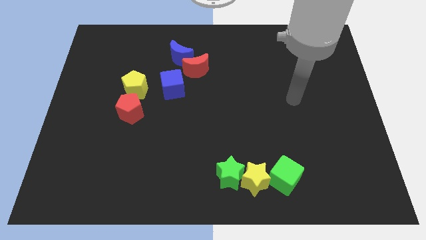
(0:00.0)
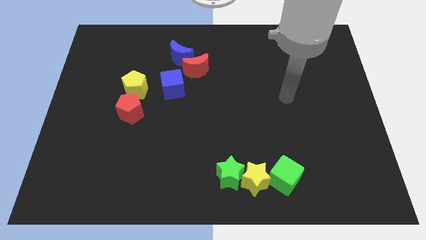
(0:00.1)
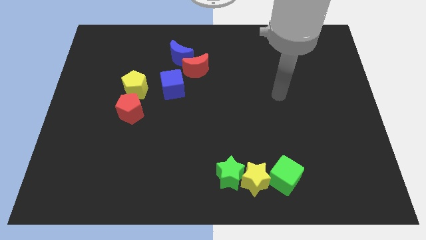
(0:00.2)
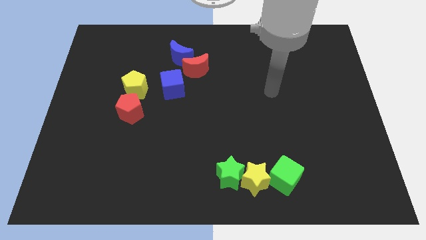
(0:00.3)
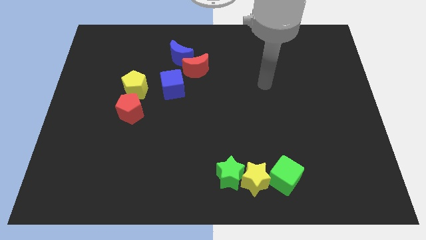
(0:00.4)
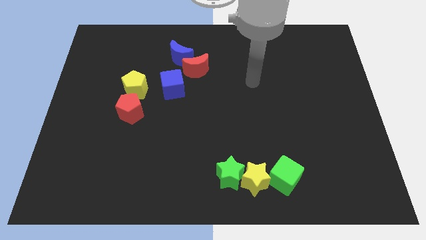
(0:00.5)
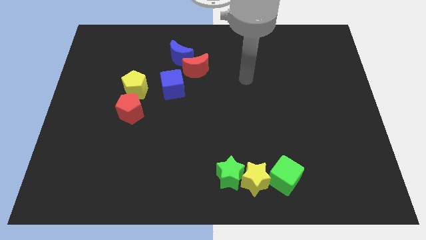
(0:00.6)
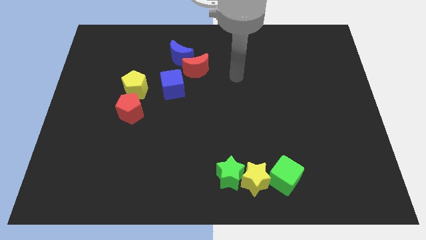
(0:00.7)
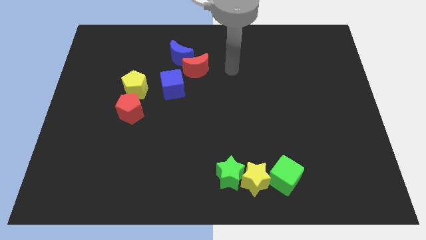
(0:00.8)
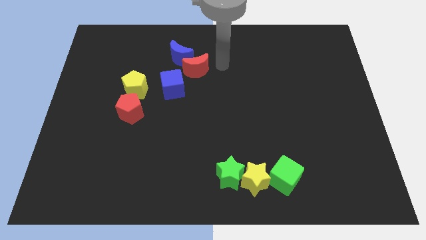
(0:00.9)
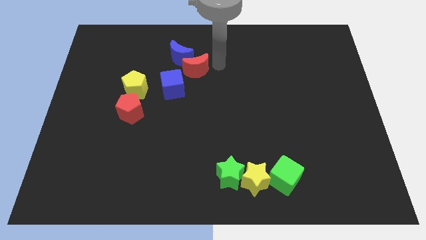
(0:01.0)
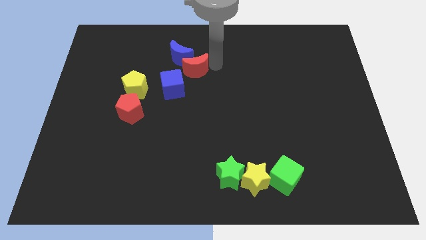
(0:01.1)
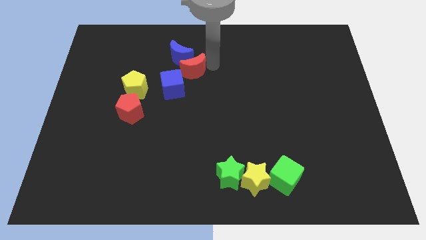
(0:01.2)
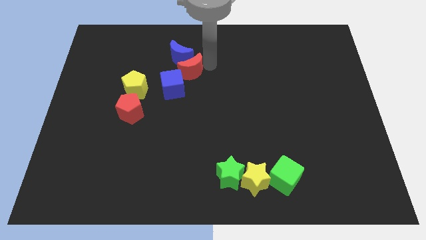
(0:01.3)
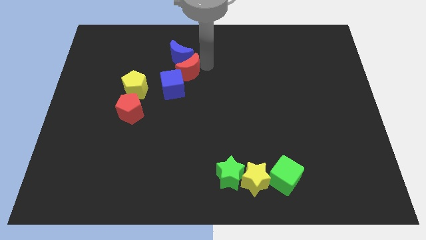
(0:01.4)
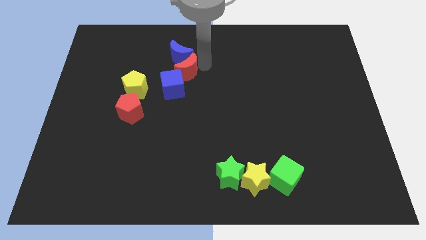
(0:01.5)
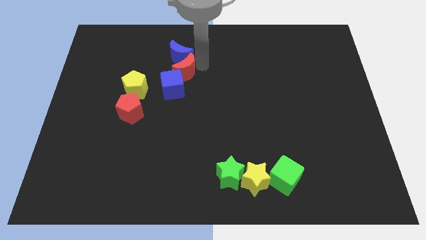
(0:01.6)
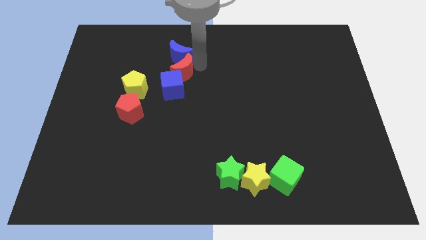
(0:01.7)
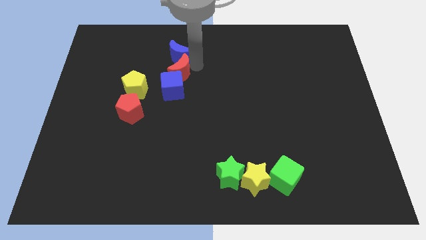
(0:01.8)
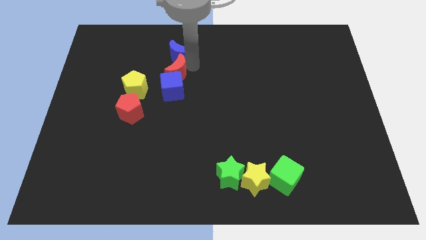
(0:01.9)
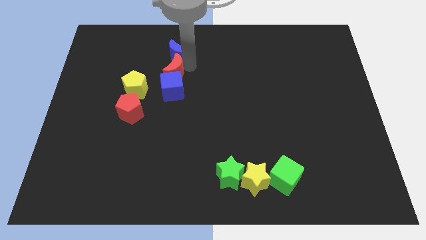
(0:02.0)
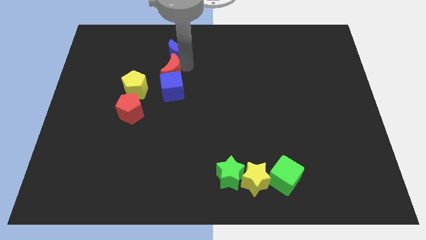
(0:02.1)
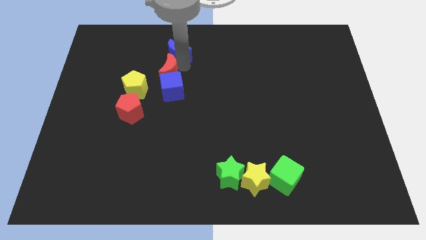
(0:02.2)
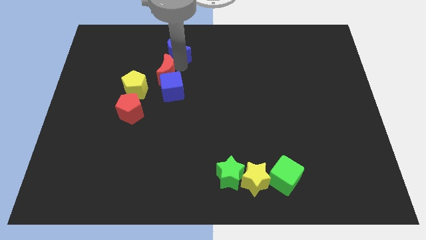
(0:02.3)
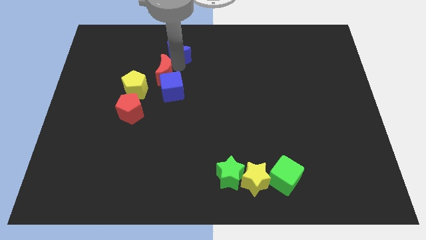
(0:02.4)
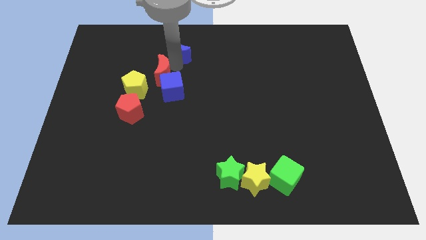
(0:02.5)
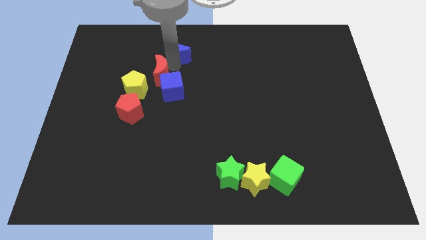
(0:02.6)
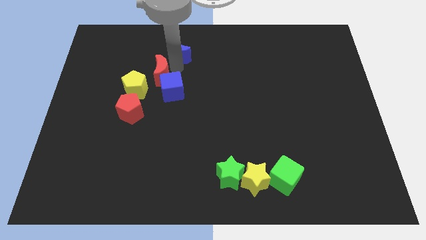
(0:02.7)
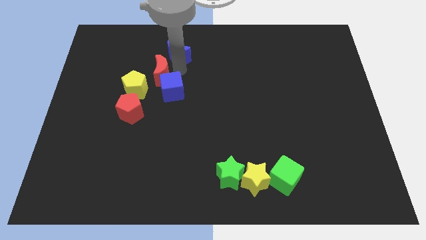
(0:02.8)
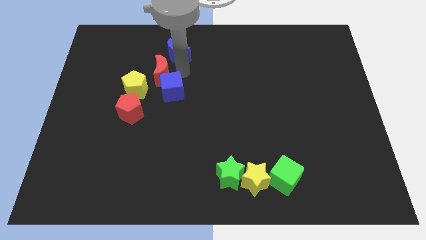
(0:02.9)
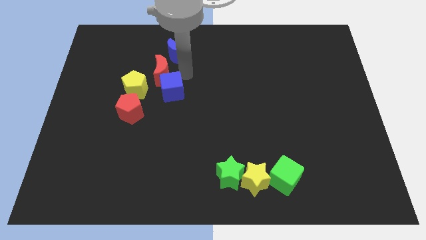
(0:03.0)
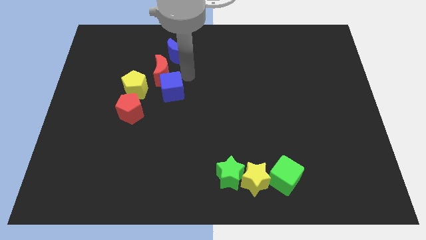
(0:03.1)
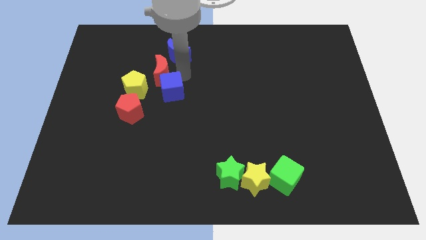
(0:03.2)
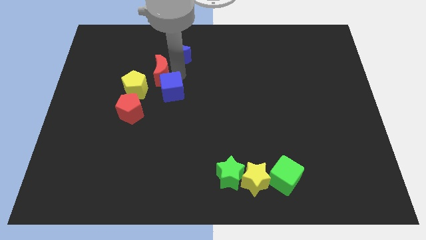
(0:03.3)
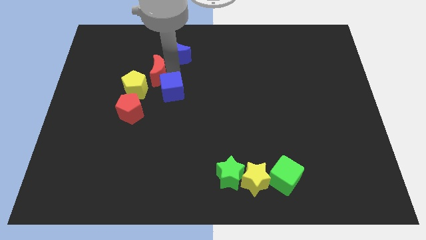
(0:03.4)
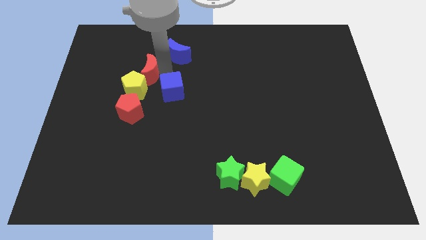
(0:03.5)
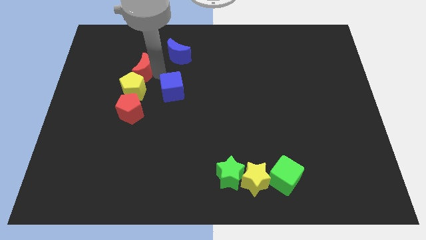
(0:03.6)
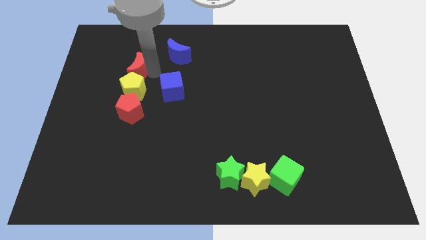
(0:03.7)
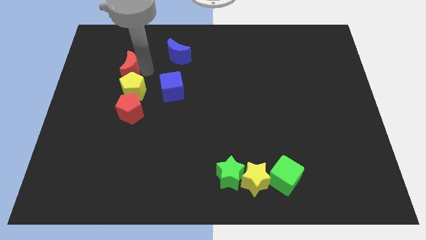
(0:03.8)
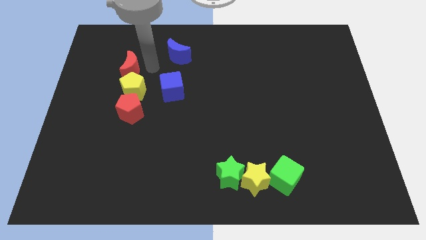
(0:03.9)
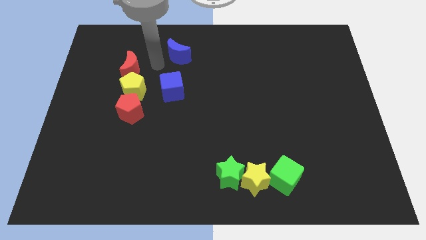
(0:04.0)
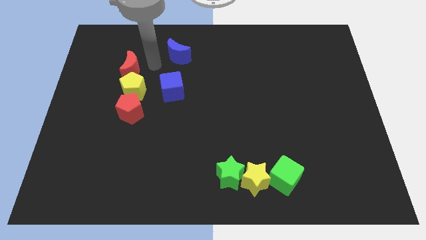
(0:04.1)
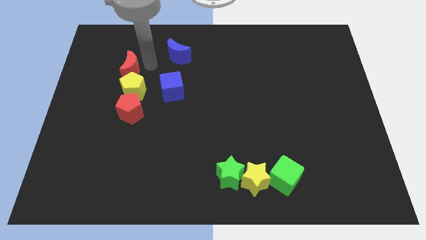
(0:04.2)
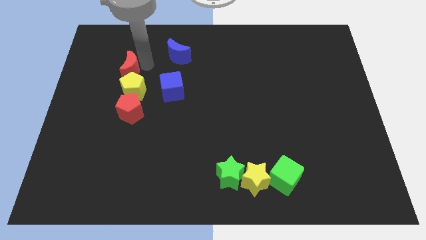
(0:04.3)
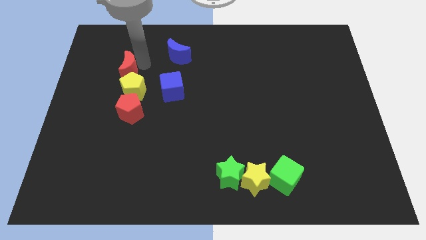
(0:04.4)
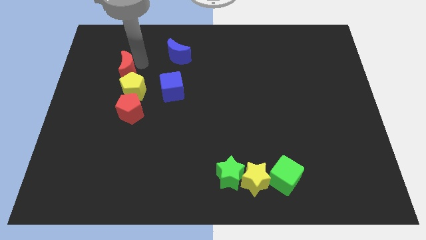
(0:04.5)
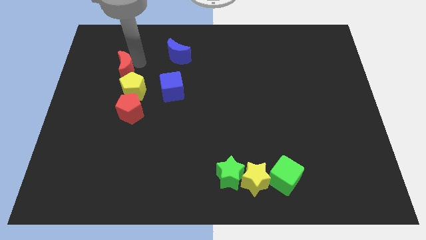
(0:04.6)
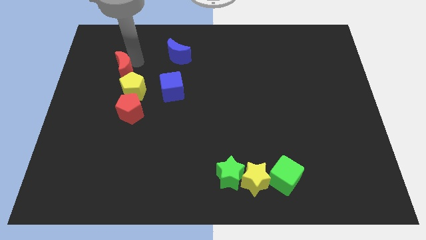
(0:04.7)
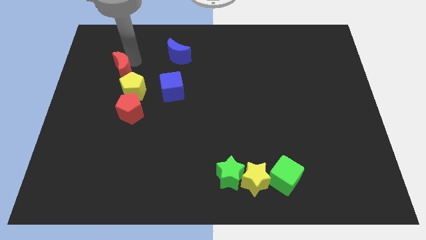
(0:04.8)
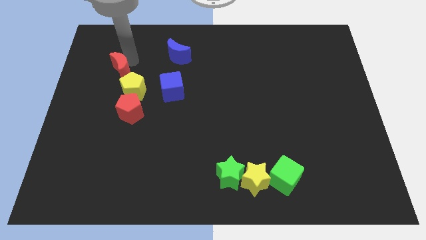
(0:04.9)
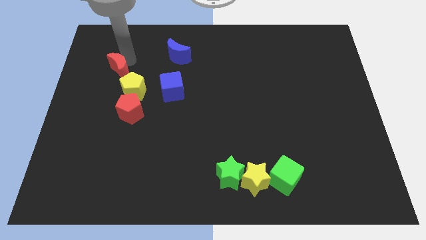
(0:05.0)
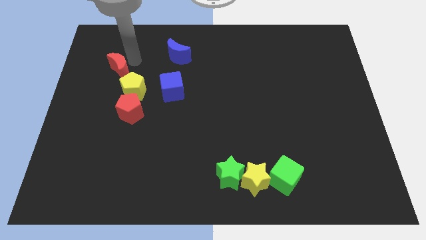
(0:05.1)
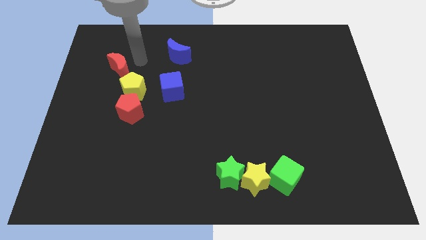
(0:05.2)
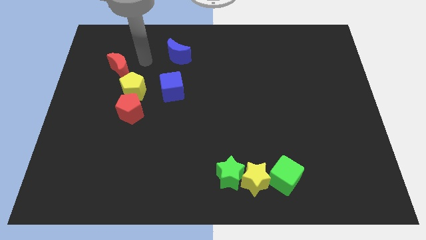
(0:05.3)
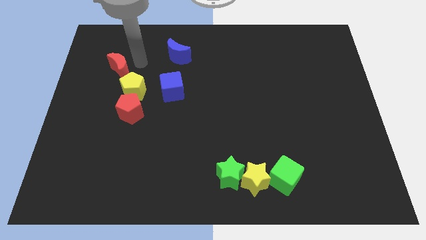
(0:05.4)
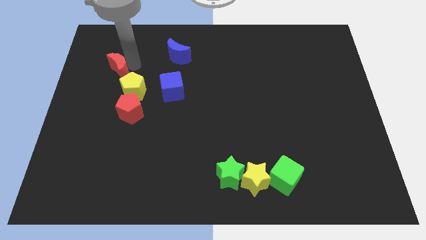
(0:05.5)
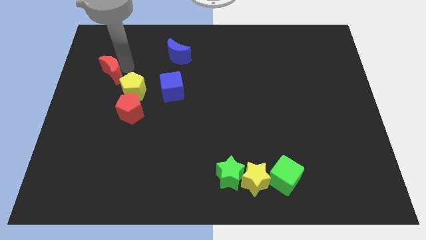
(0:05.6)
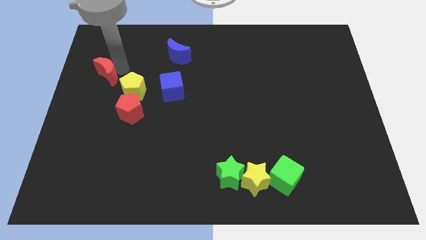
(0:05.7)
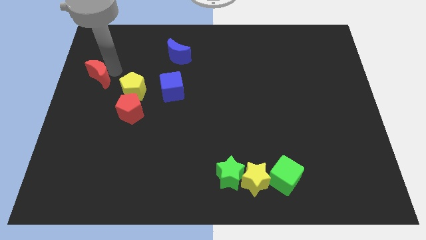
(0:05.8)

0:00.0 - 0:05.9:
push the red moon to the left side of the board

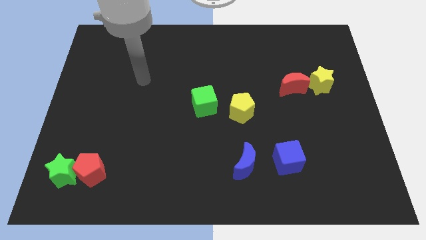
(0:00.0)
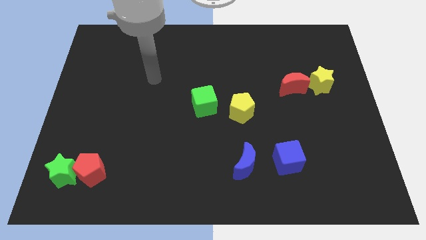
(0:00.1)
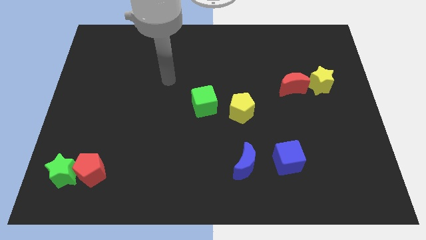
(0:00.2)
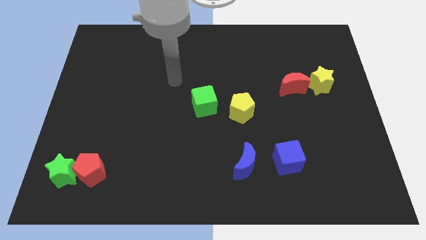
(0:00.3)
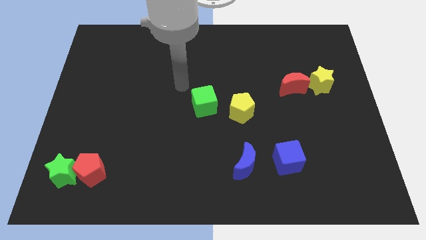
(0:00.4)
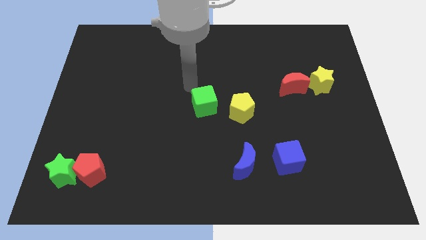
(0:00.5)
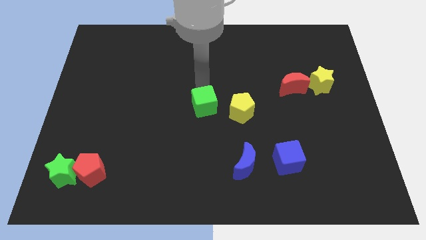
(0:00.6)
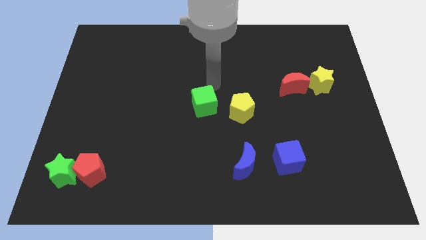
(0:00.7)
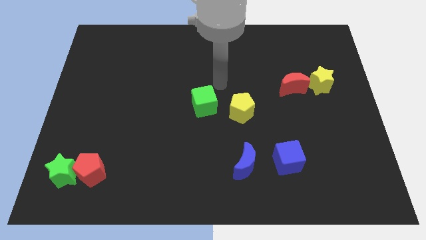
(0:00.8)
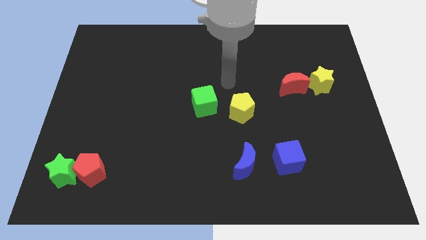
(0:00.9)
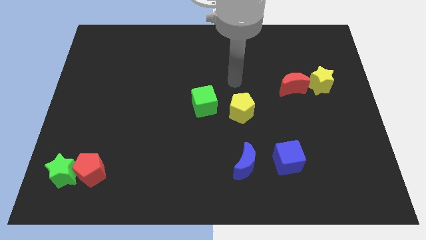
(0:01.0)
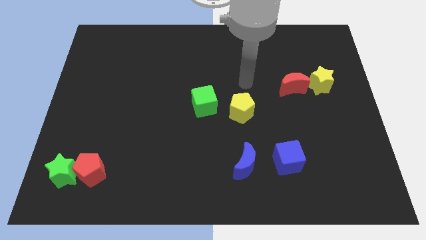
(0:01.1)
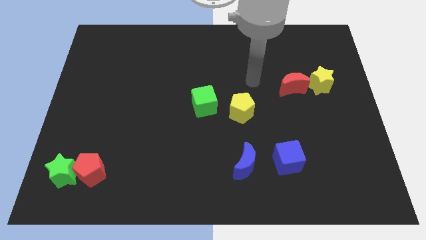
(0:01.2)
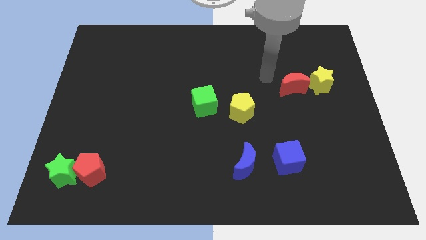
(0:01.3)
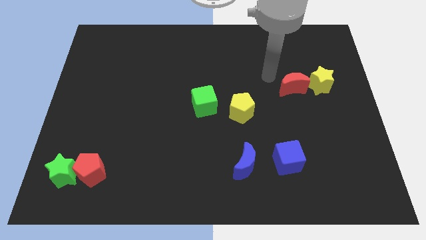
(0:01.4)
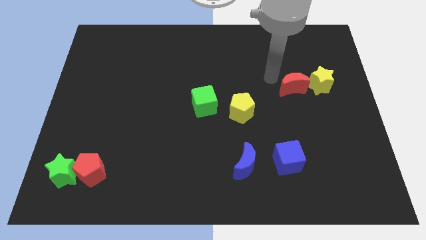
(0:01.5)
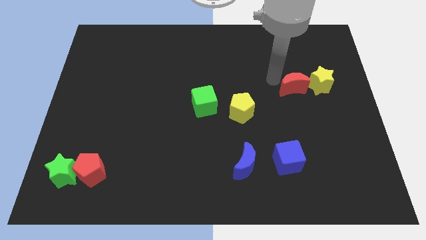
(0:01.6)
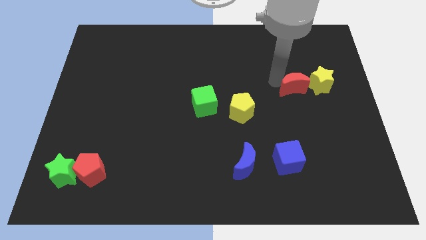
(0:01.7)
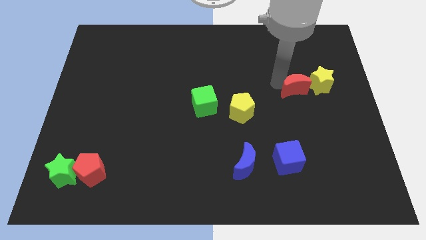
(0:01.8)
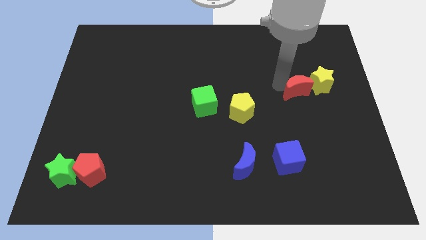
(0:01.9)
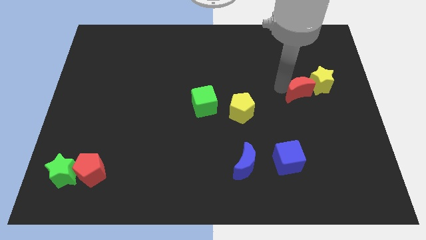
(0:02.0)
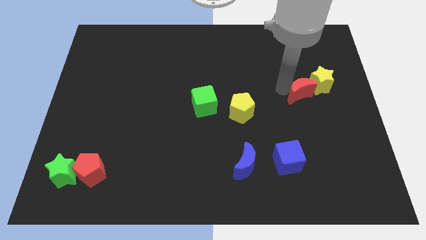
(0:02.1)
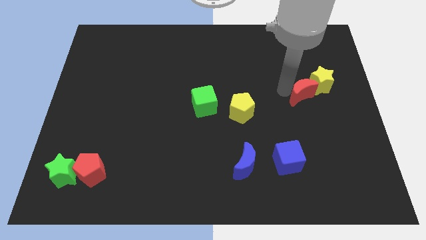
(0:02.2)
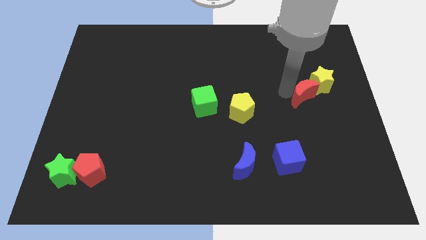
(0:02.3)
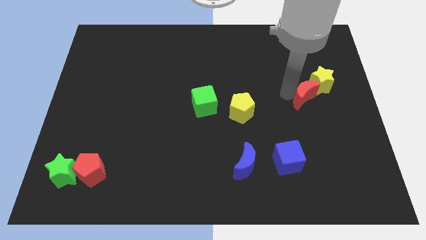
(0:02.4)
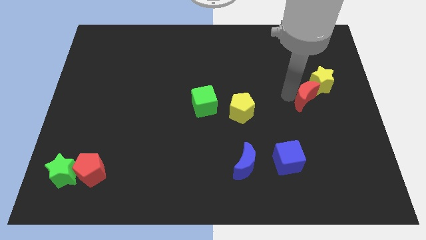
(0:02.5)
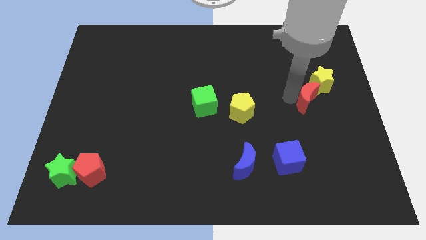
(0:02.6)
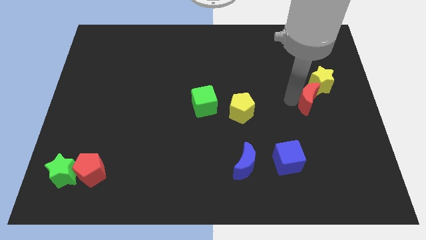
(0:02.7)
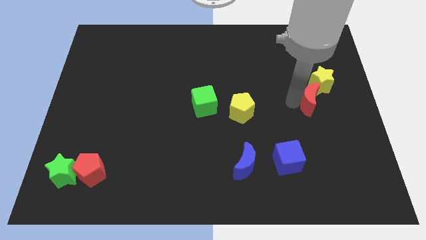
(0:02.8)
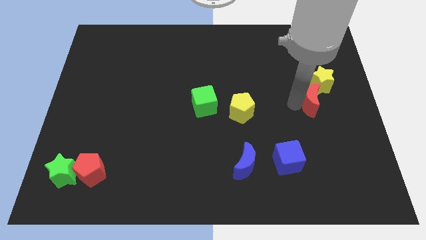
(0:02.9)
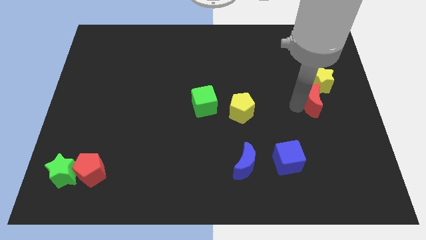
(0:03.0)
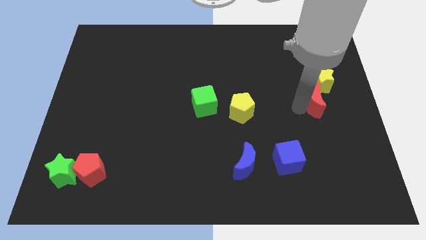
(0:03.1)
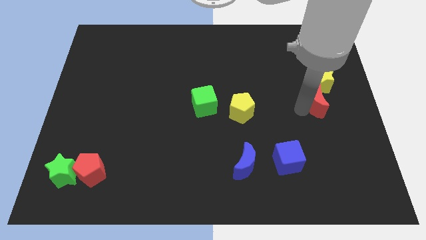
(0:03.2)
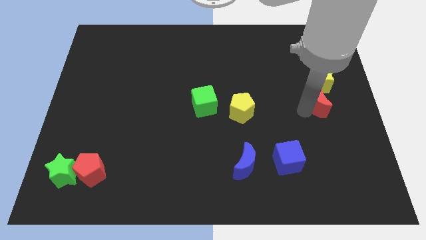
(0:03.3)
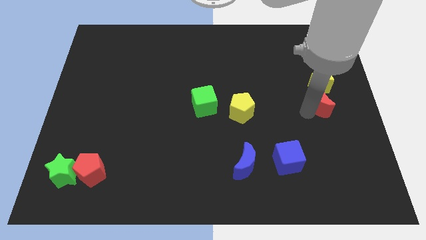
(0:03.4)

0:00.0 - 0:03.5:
put the red moon to the center right
